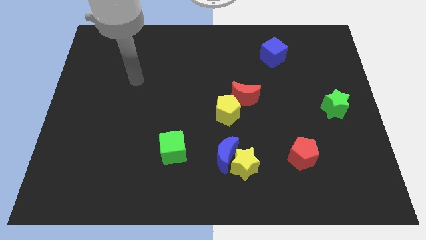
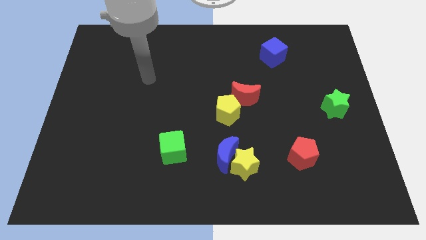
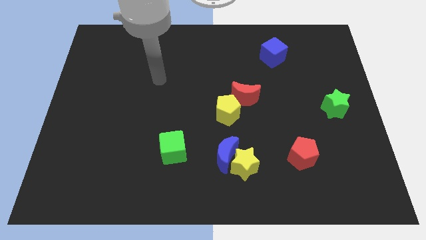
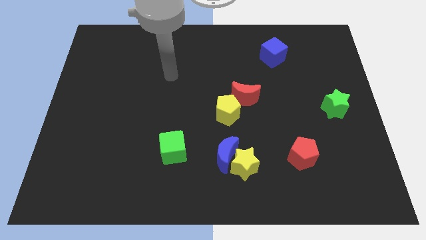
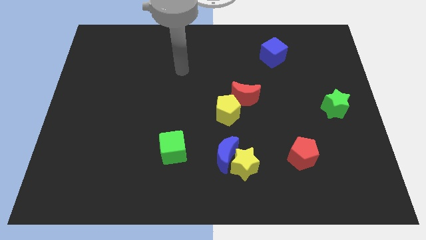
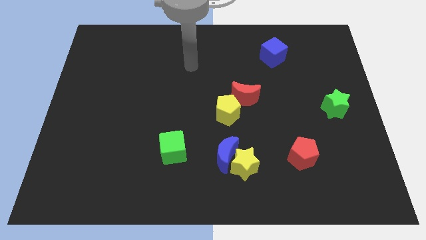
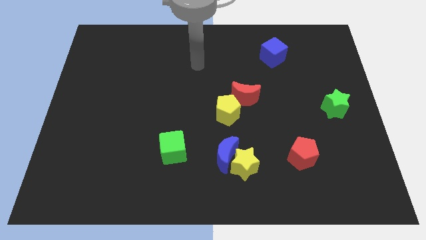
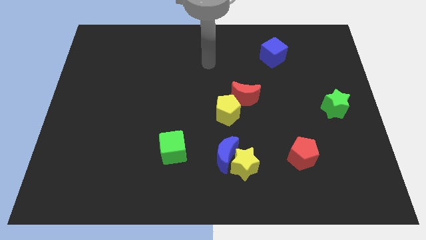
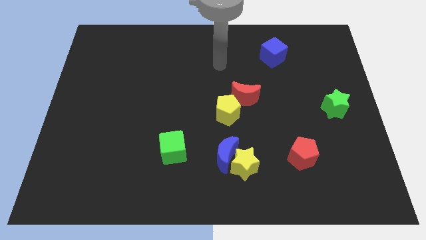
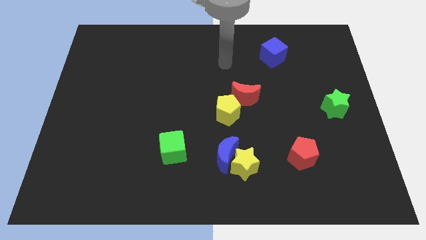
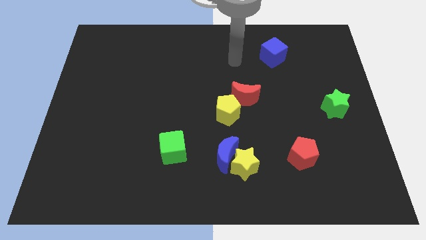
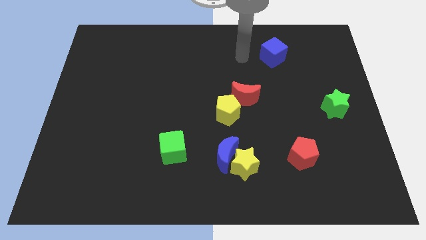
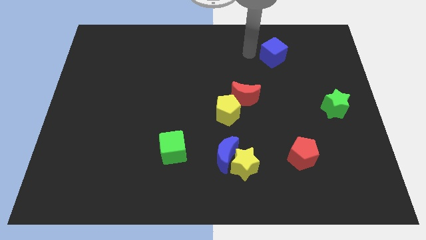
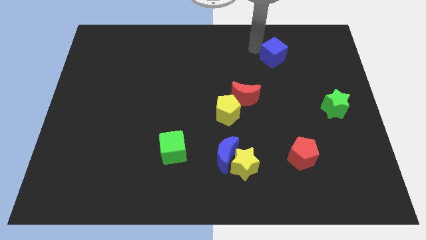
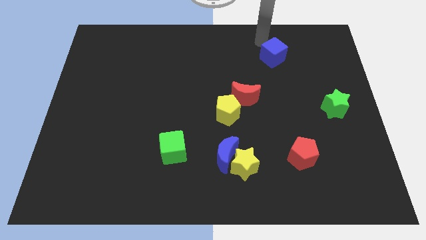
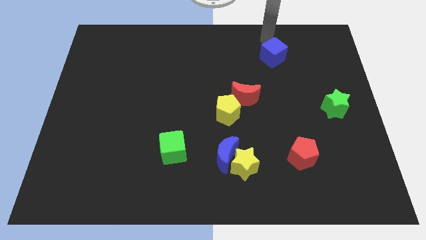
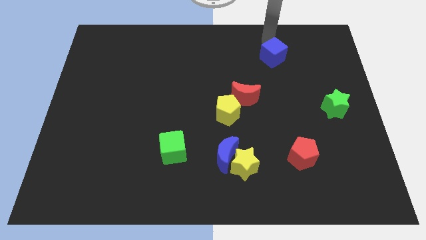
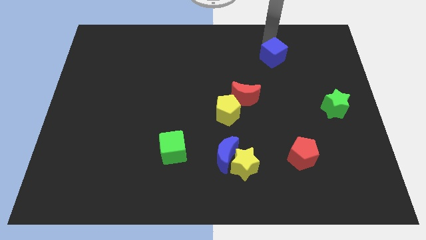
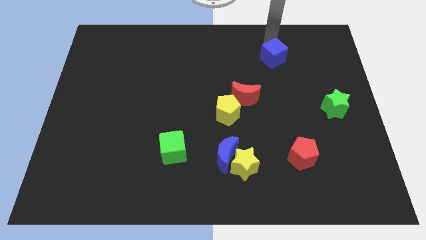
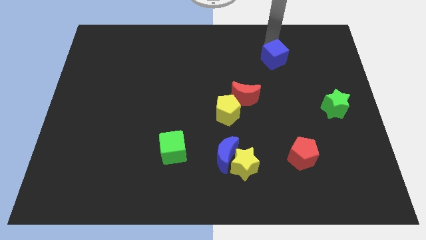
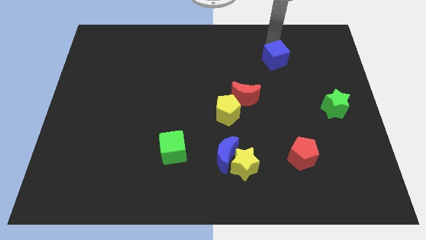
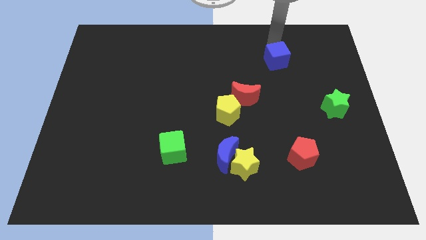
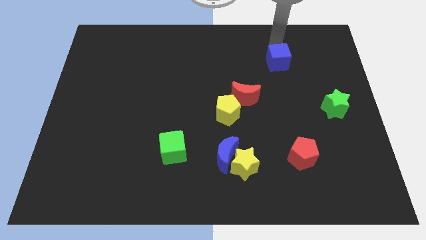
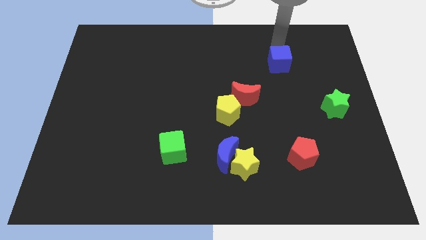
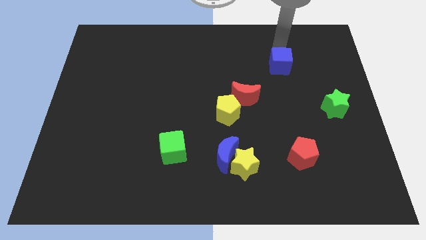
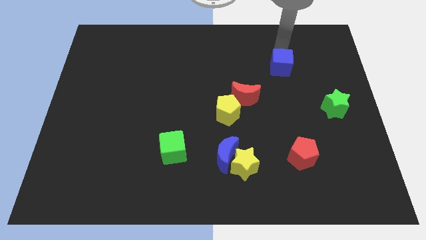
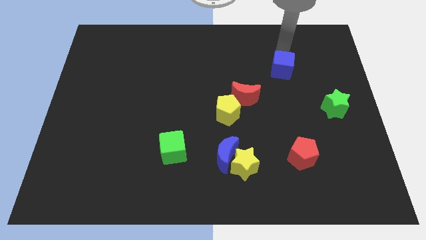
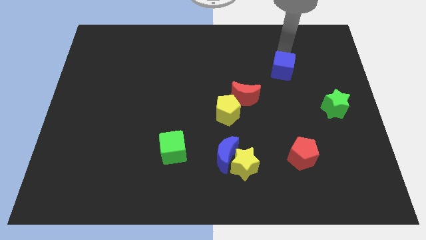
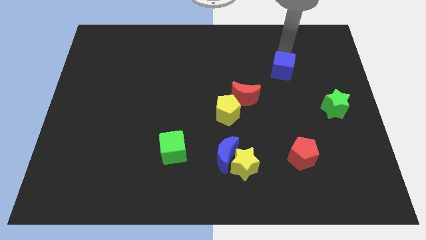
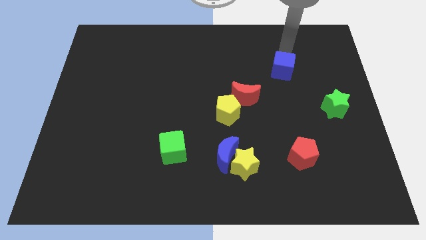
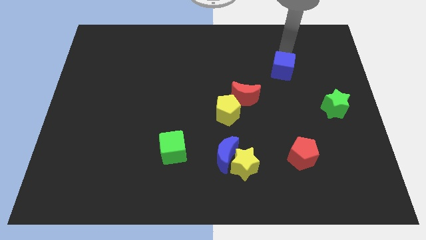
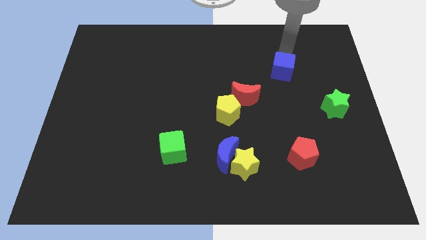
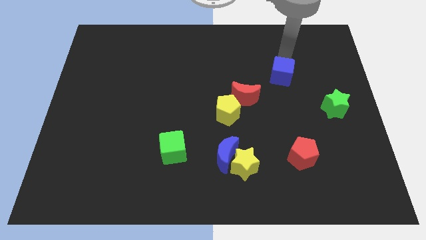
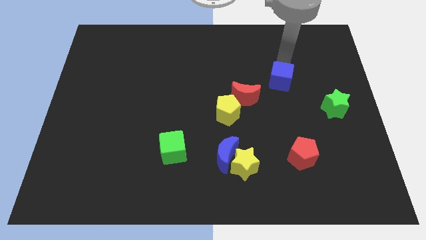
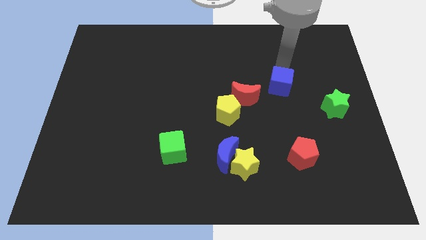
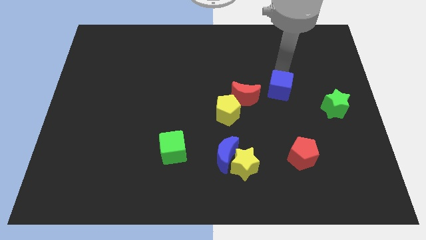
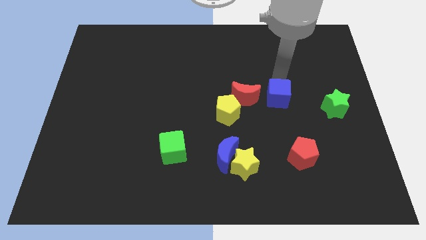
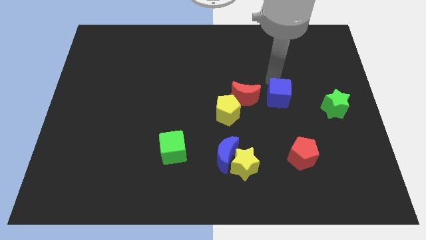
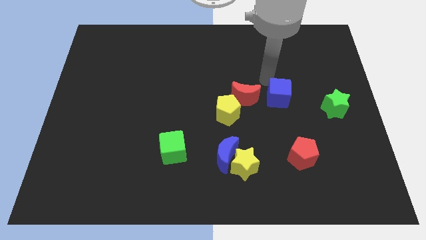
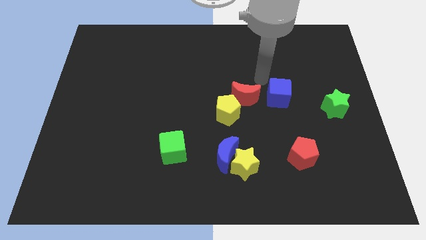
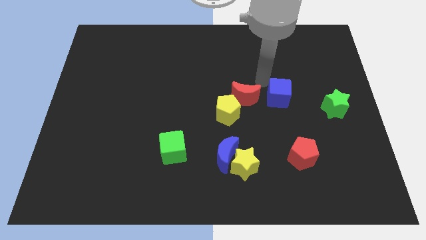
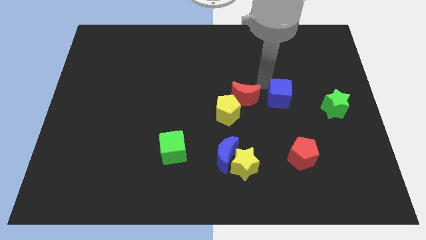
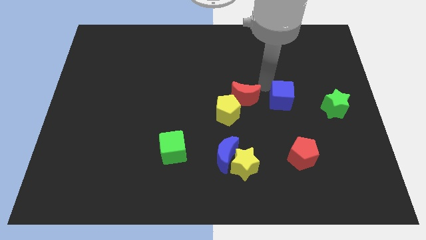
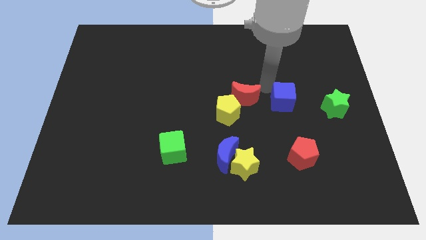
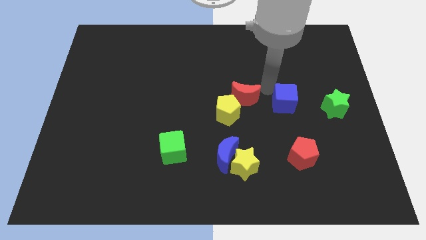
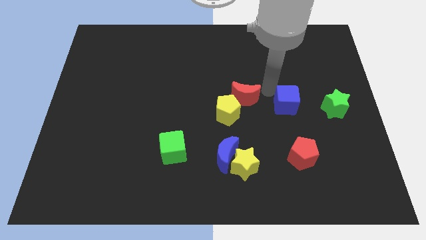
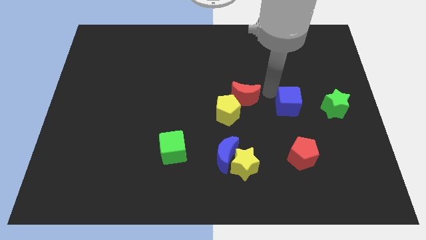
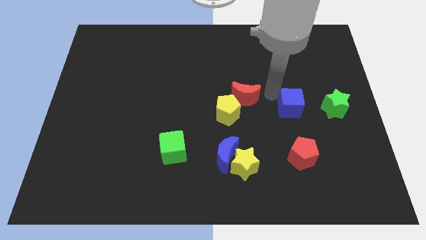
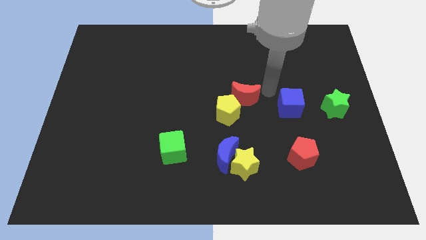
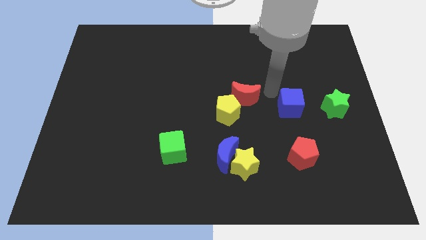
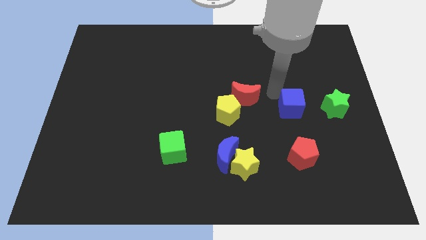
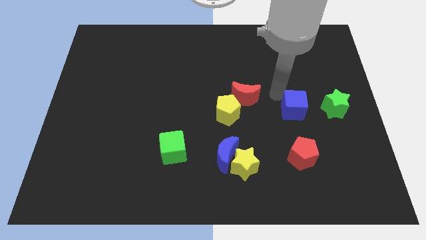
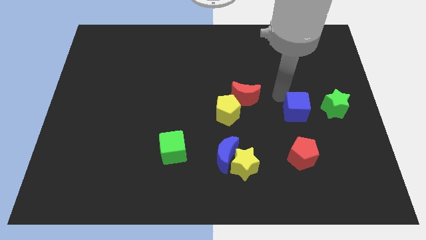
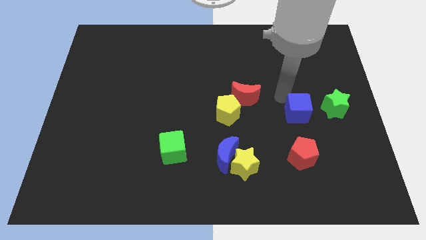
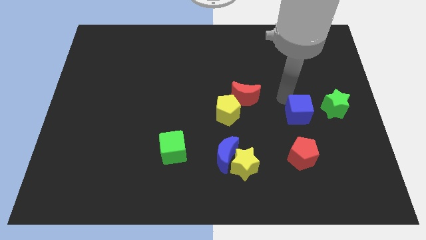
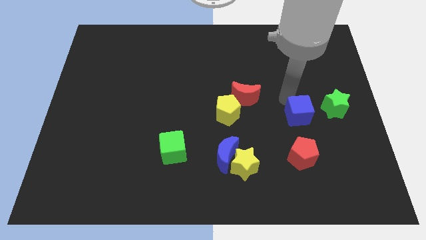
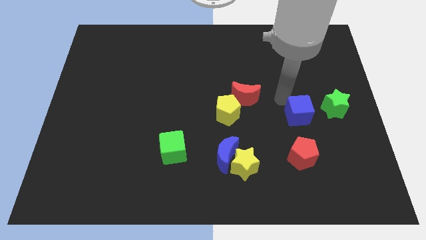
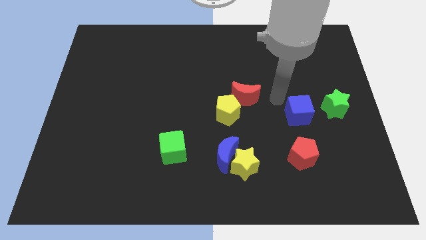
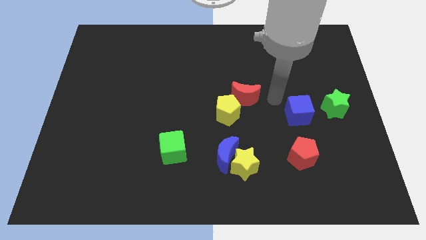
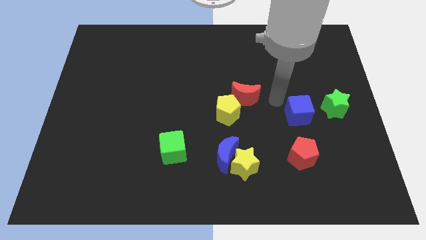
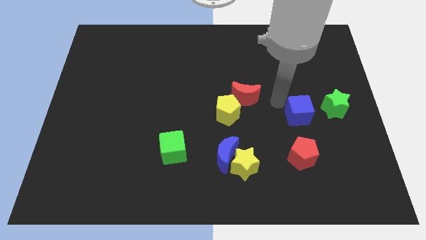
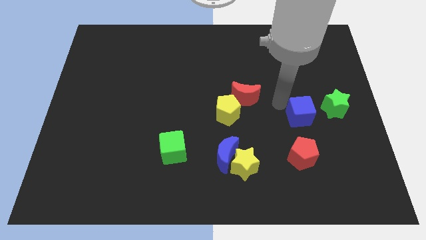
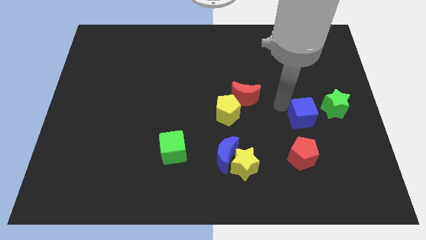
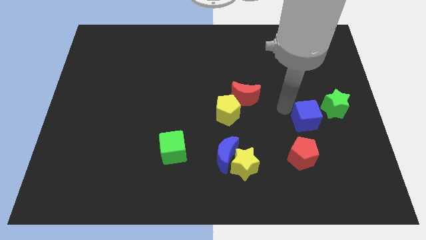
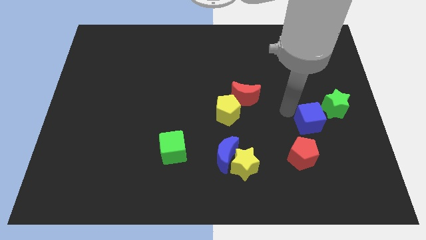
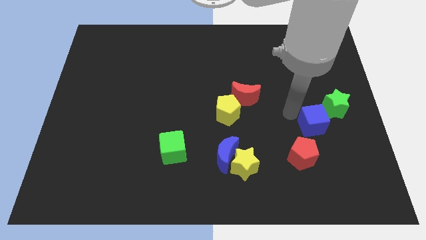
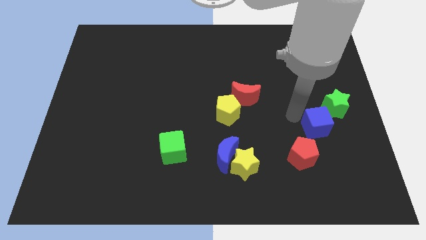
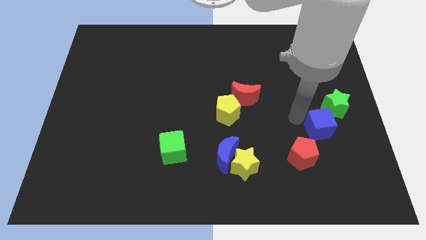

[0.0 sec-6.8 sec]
slide the blue cube to the bottom side of the green star
